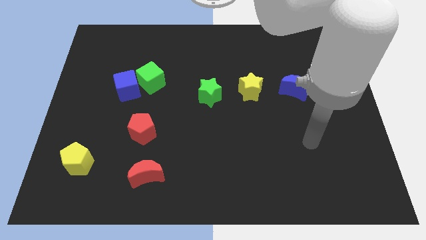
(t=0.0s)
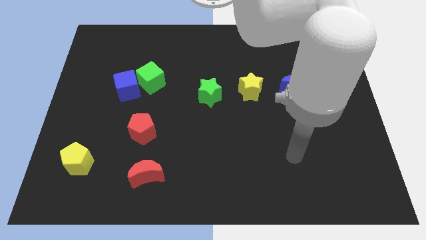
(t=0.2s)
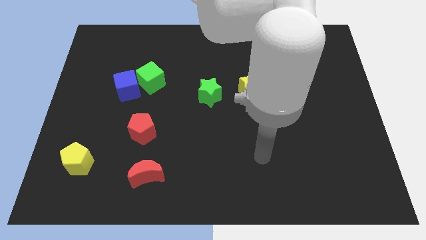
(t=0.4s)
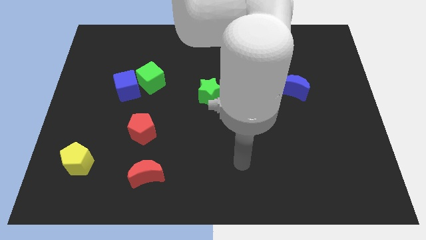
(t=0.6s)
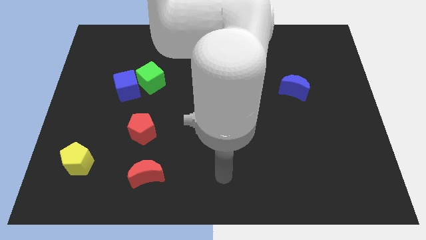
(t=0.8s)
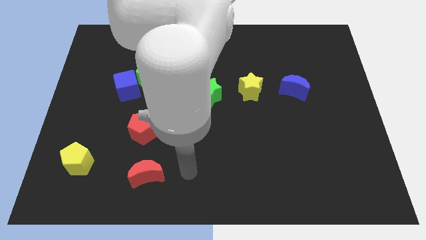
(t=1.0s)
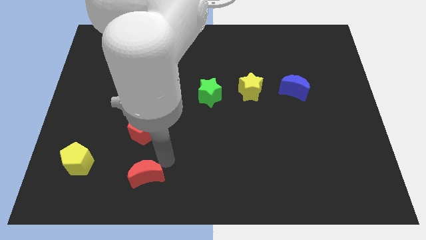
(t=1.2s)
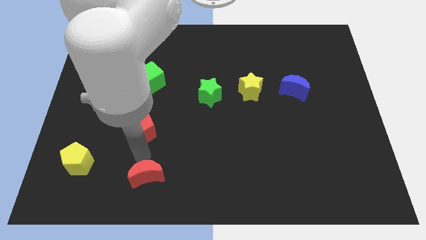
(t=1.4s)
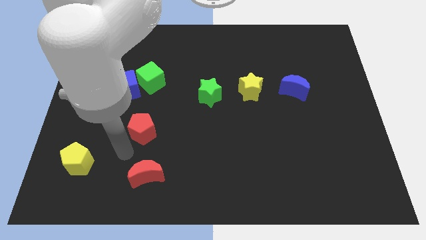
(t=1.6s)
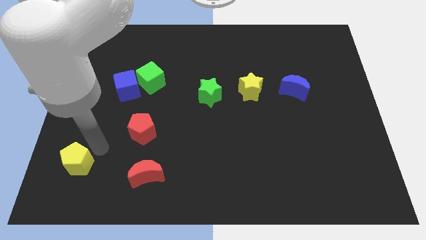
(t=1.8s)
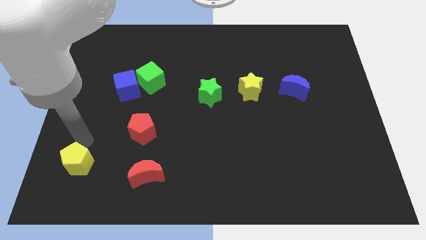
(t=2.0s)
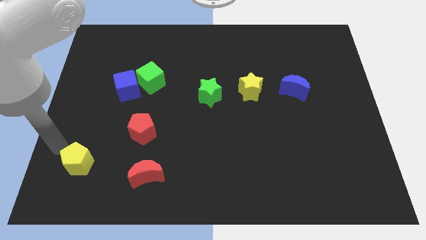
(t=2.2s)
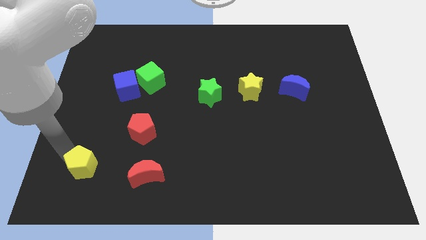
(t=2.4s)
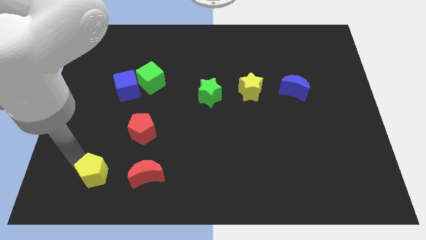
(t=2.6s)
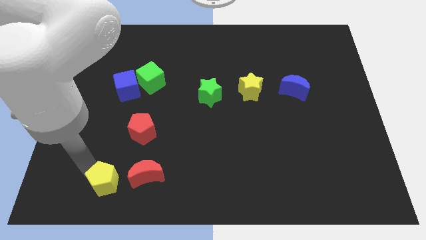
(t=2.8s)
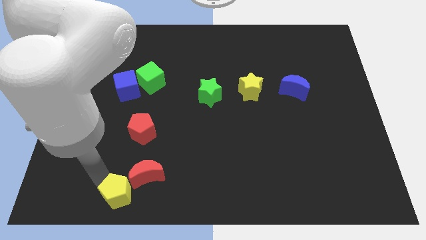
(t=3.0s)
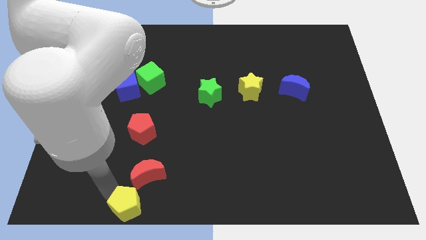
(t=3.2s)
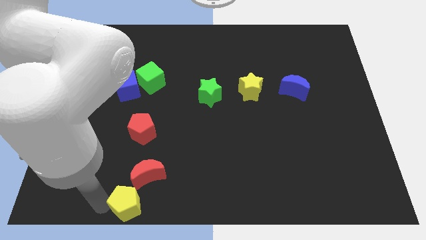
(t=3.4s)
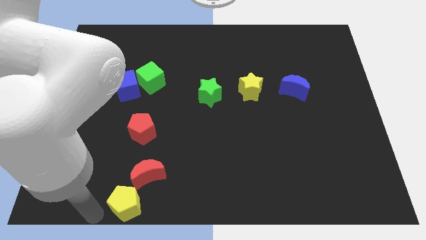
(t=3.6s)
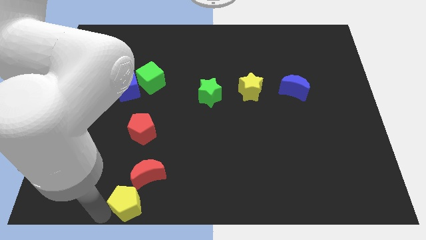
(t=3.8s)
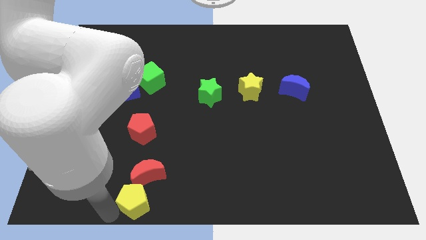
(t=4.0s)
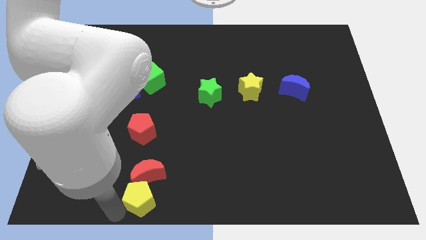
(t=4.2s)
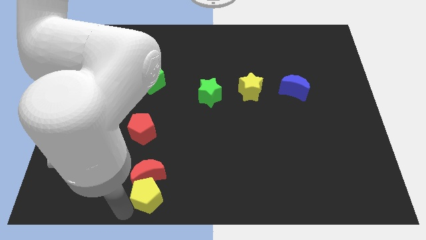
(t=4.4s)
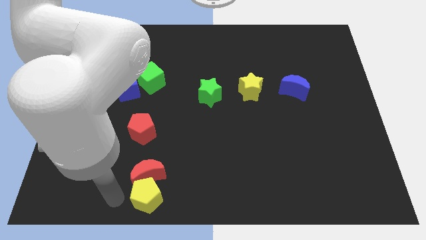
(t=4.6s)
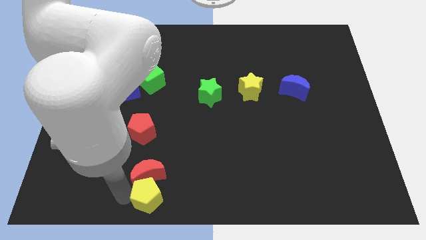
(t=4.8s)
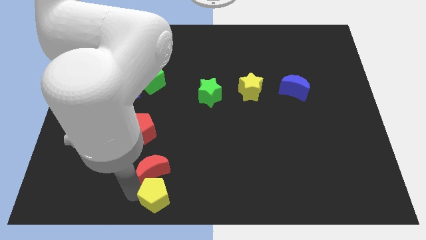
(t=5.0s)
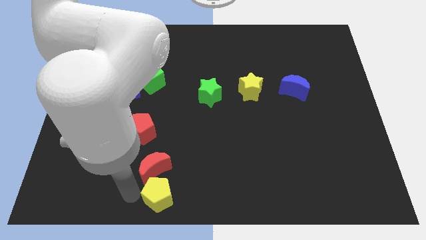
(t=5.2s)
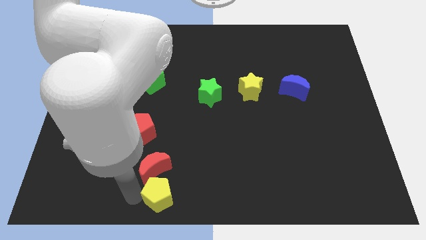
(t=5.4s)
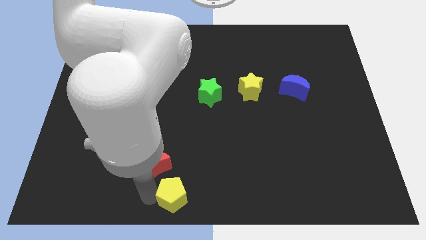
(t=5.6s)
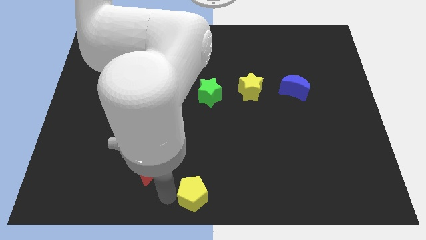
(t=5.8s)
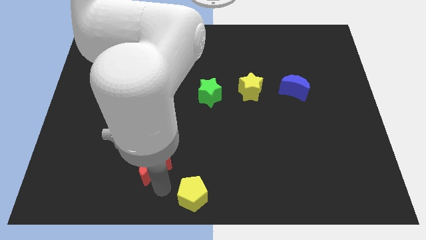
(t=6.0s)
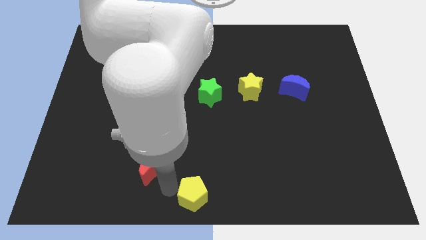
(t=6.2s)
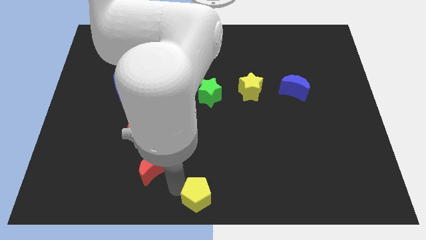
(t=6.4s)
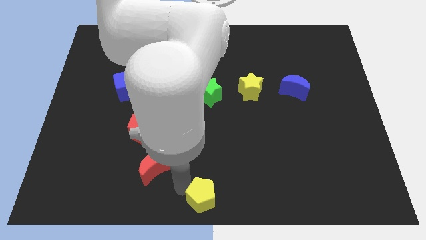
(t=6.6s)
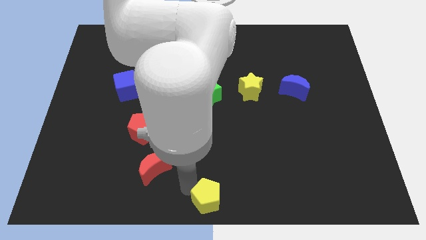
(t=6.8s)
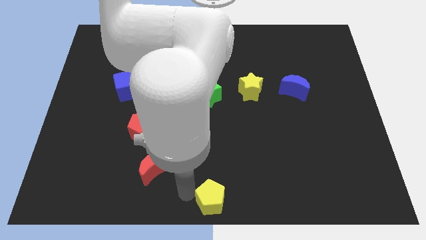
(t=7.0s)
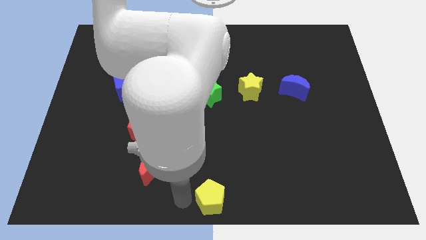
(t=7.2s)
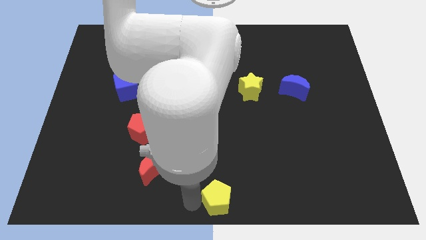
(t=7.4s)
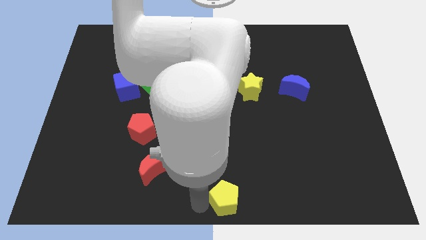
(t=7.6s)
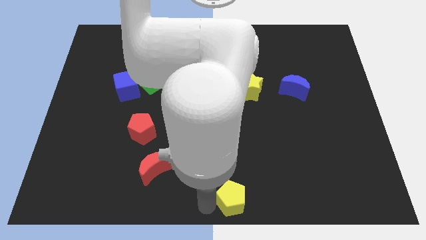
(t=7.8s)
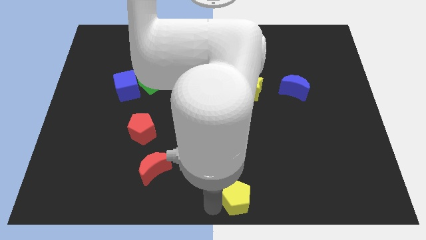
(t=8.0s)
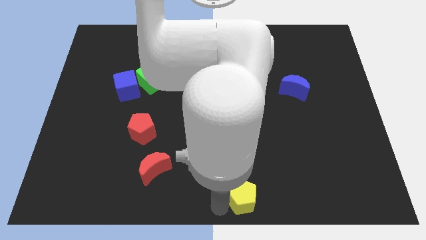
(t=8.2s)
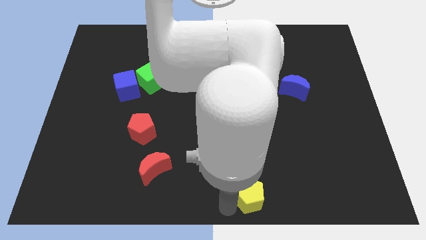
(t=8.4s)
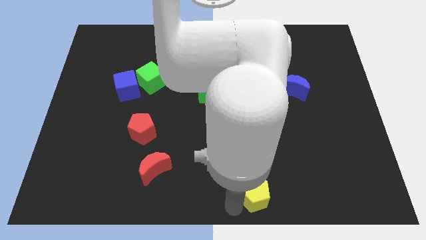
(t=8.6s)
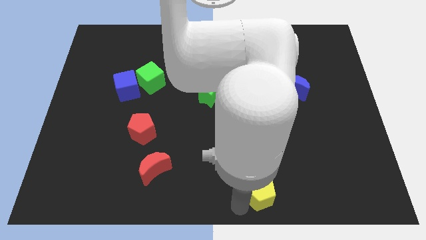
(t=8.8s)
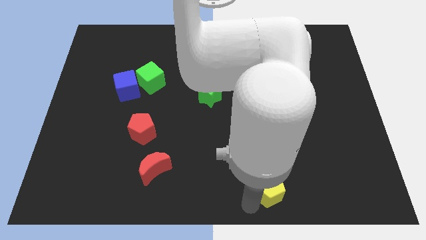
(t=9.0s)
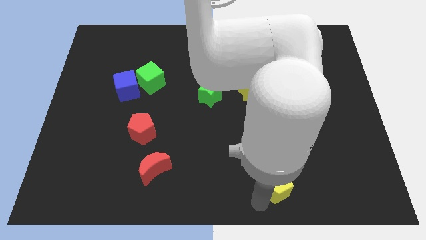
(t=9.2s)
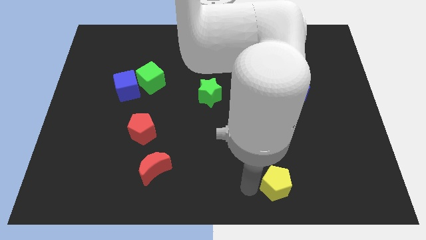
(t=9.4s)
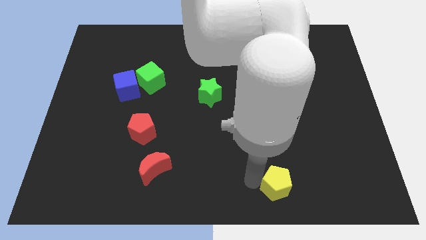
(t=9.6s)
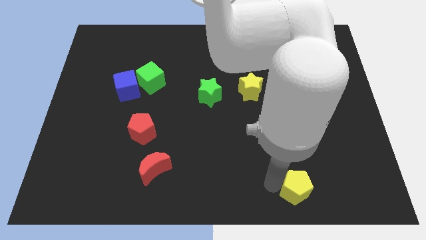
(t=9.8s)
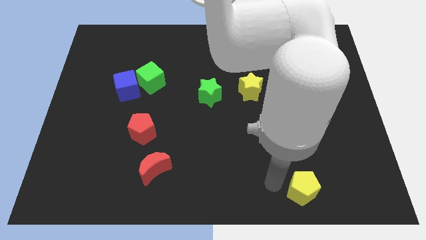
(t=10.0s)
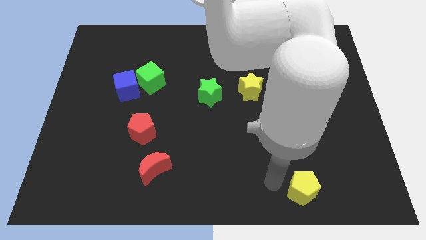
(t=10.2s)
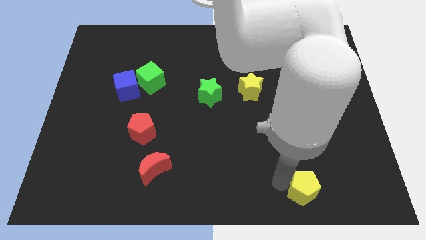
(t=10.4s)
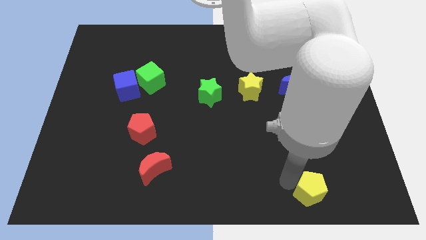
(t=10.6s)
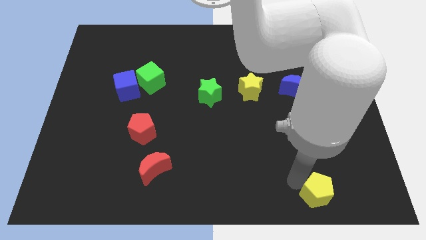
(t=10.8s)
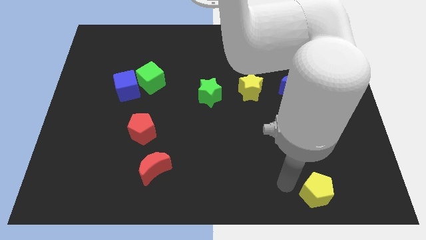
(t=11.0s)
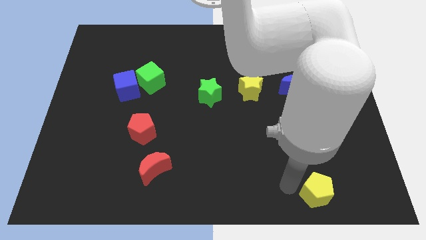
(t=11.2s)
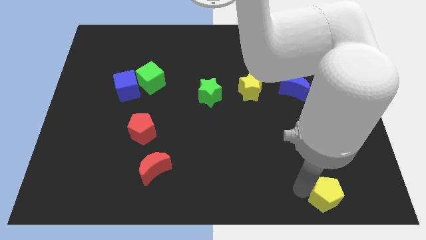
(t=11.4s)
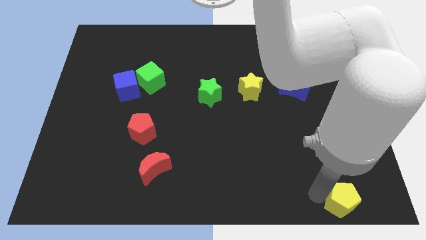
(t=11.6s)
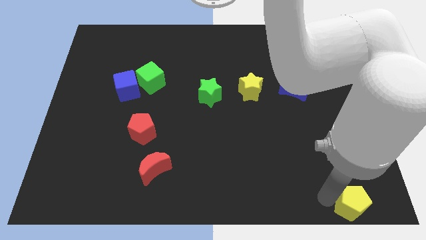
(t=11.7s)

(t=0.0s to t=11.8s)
slide the yellow pentagon to the bottom right

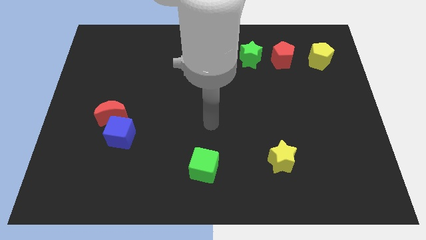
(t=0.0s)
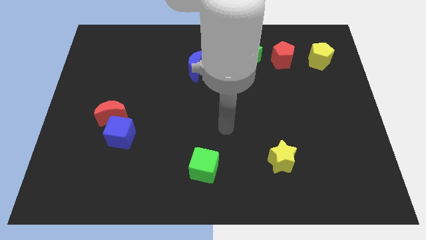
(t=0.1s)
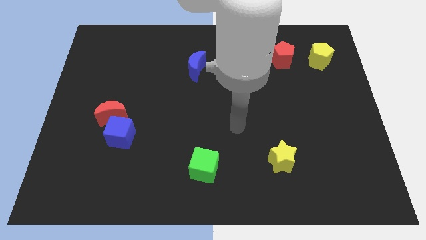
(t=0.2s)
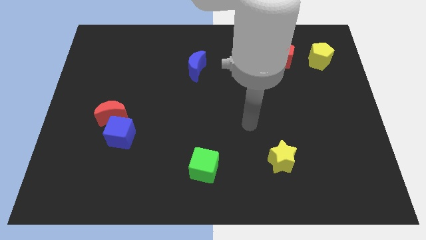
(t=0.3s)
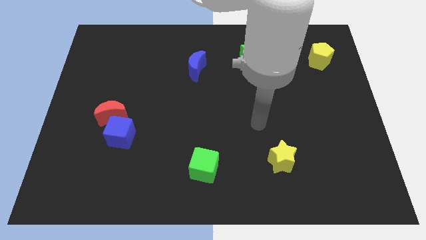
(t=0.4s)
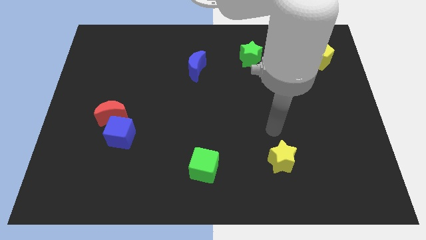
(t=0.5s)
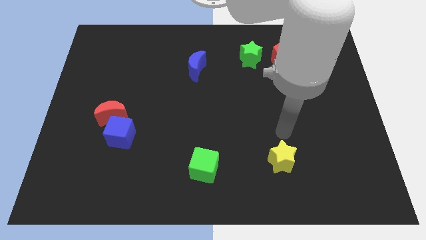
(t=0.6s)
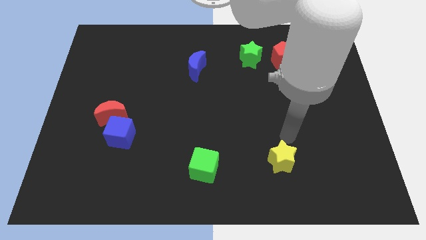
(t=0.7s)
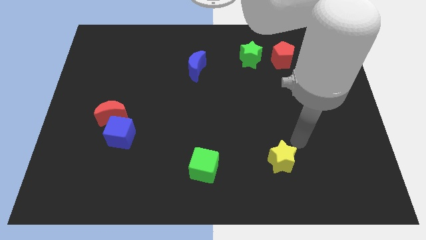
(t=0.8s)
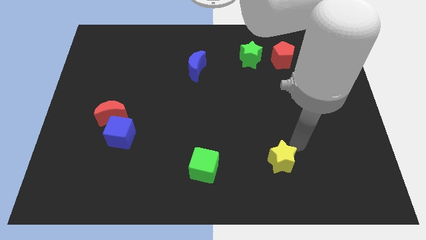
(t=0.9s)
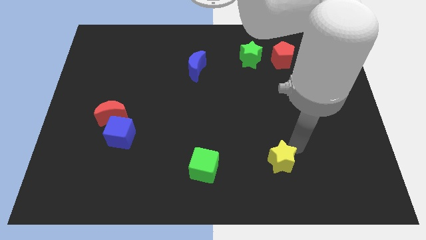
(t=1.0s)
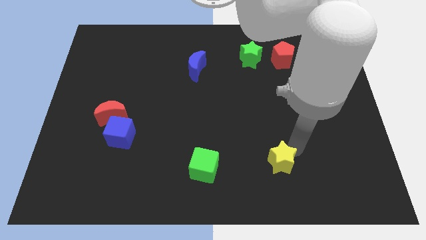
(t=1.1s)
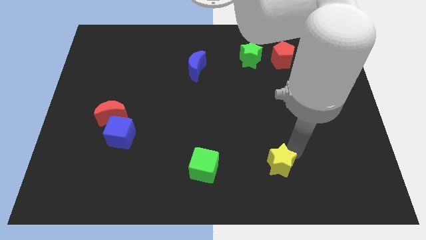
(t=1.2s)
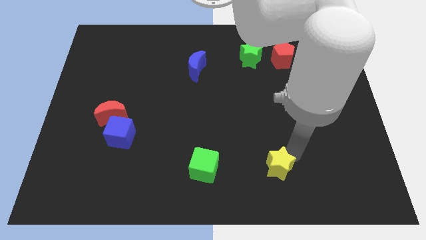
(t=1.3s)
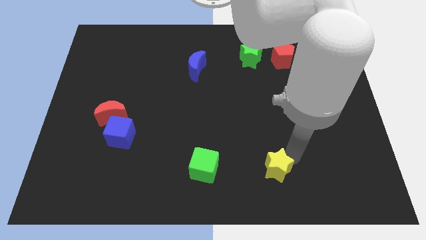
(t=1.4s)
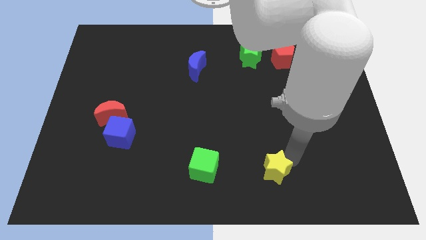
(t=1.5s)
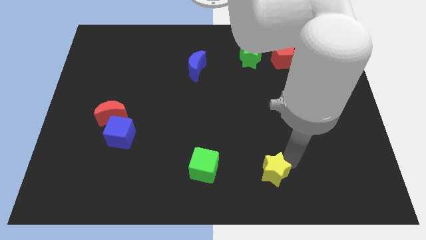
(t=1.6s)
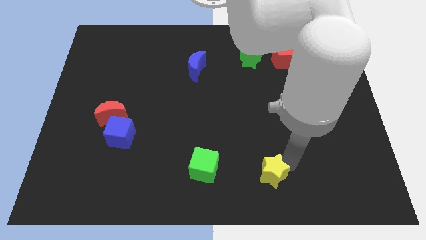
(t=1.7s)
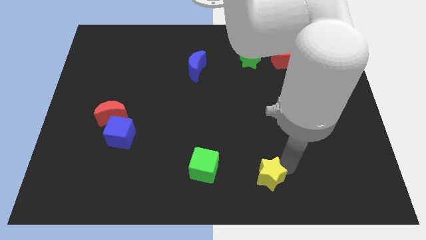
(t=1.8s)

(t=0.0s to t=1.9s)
put the yellow star to the bottom
